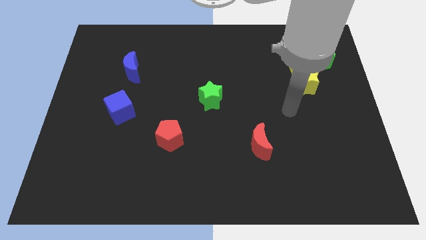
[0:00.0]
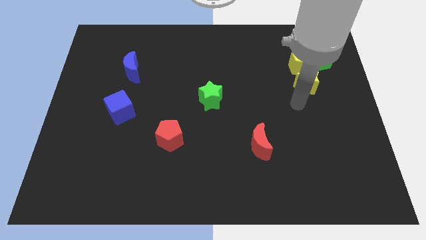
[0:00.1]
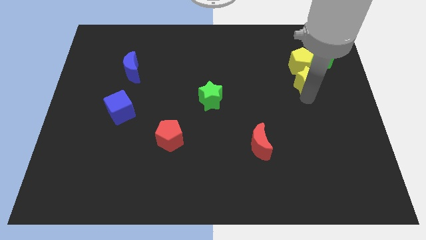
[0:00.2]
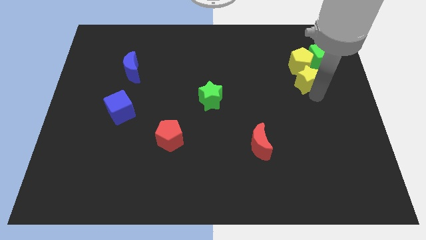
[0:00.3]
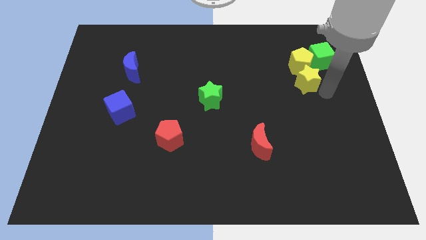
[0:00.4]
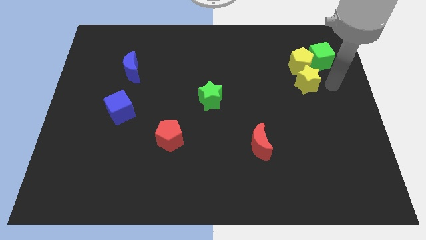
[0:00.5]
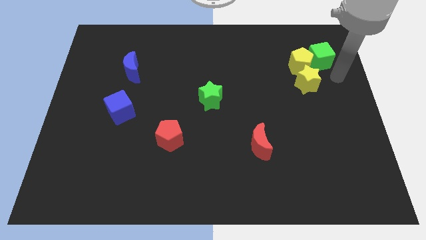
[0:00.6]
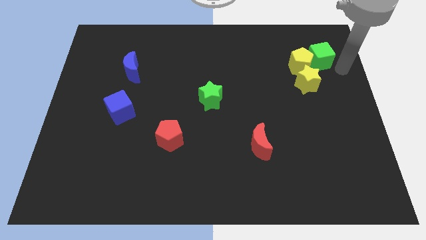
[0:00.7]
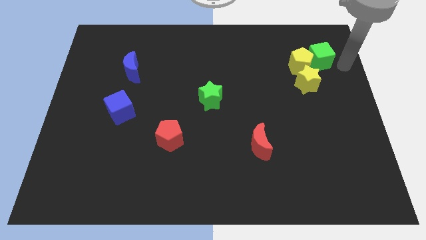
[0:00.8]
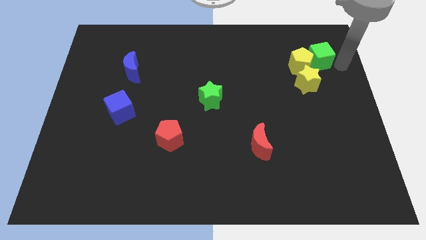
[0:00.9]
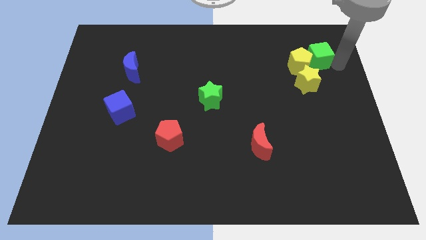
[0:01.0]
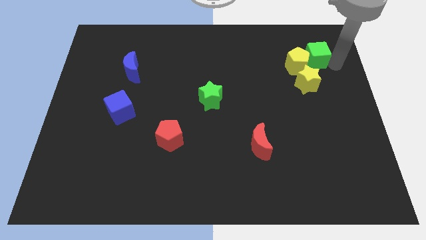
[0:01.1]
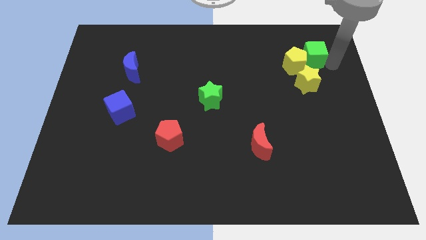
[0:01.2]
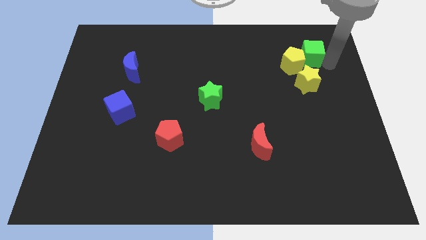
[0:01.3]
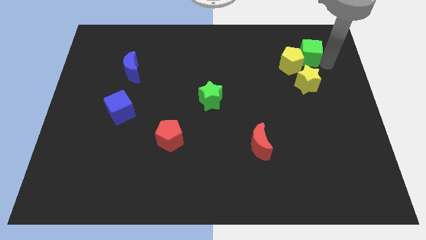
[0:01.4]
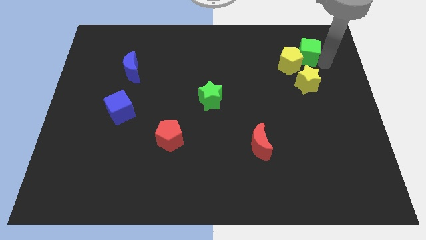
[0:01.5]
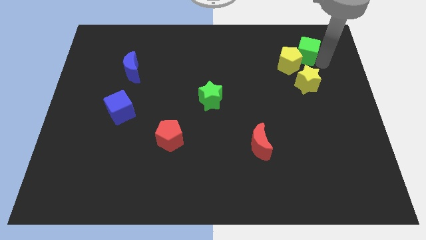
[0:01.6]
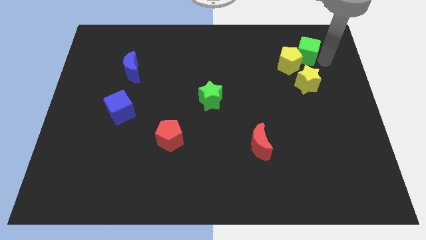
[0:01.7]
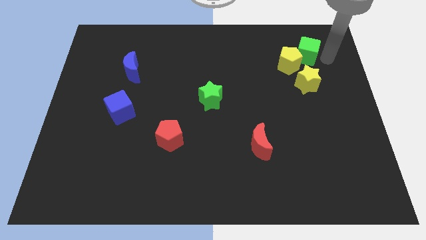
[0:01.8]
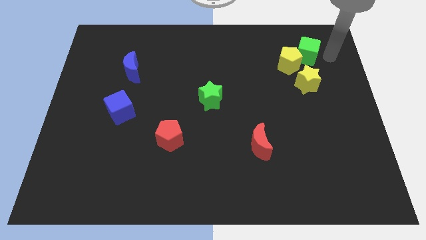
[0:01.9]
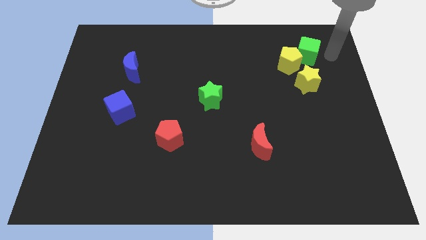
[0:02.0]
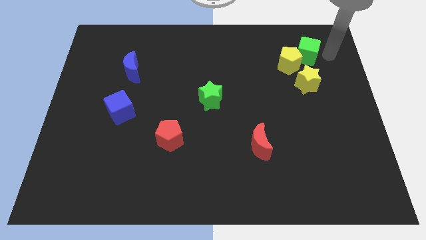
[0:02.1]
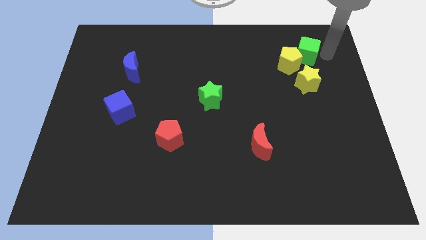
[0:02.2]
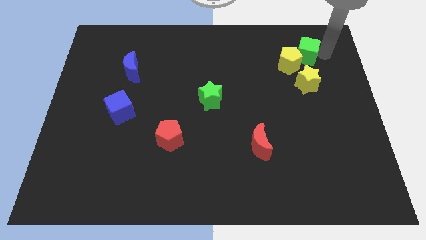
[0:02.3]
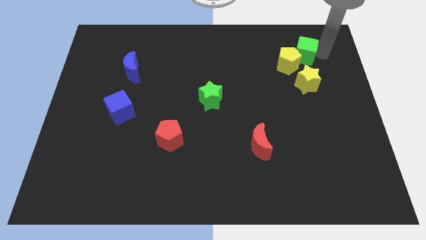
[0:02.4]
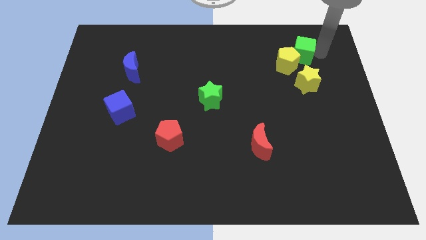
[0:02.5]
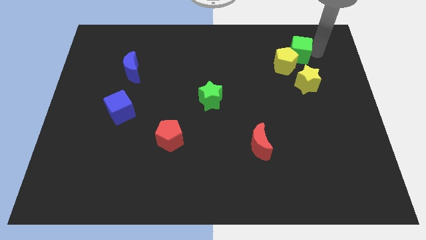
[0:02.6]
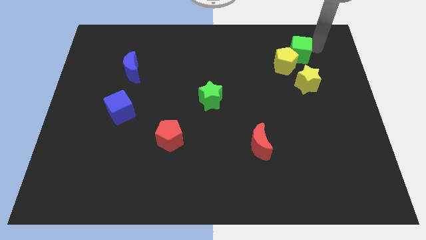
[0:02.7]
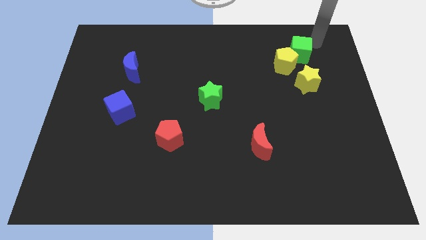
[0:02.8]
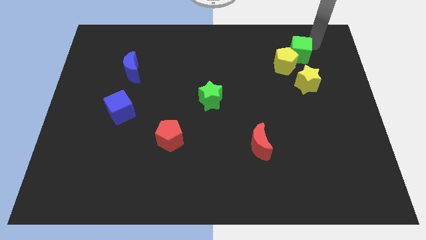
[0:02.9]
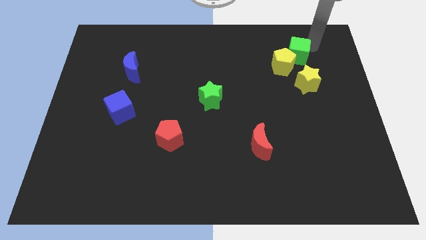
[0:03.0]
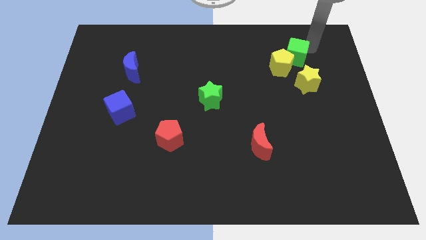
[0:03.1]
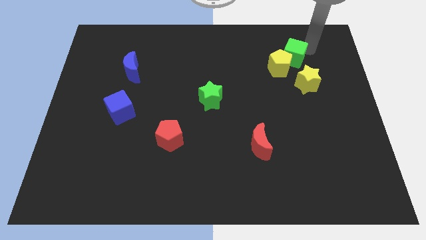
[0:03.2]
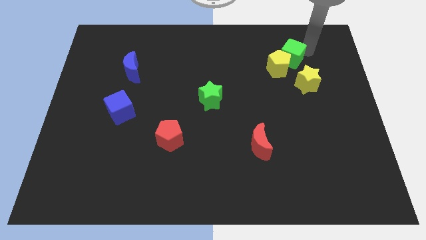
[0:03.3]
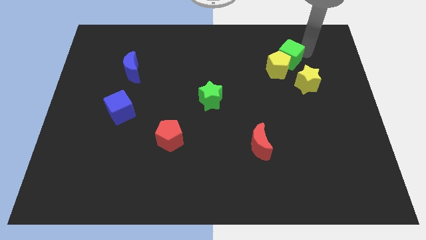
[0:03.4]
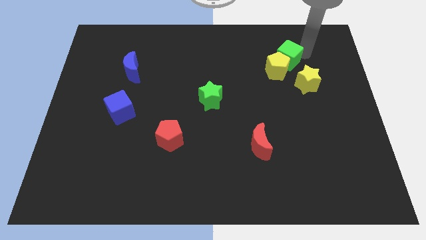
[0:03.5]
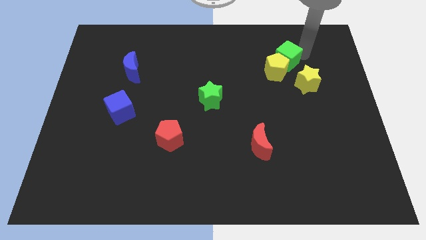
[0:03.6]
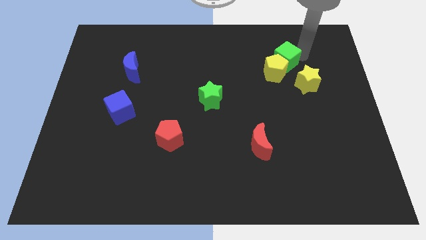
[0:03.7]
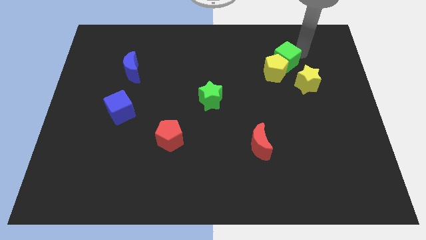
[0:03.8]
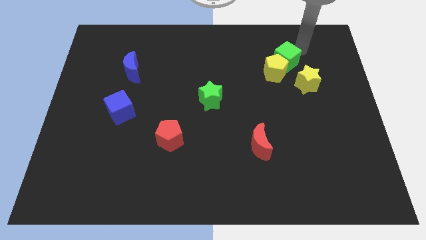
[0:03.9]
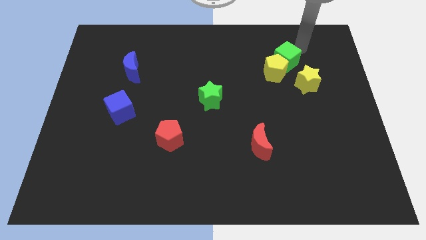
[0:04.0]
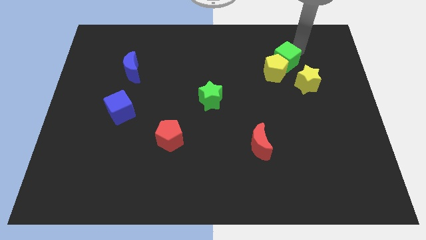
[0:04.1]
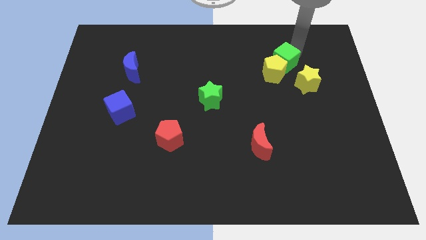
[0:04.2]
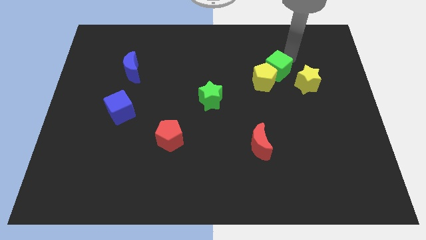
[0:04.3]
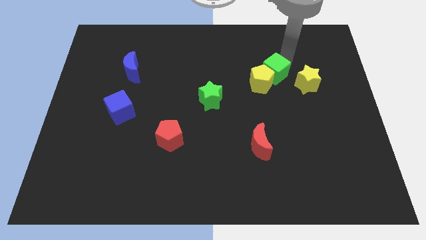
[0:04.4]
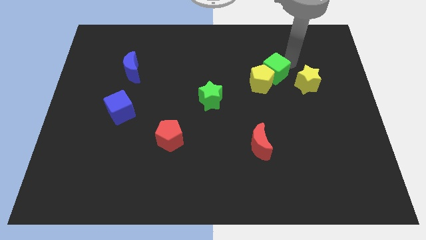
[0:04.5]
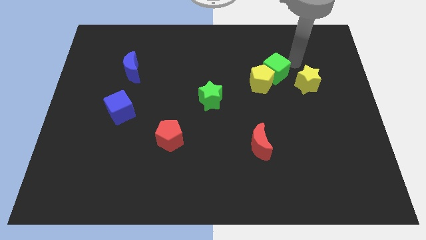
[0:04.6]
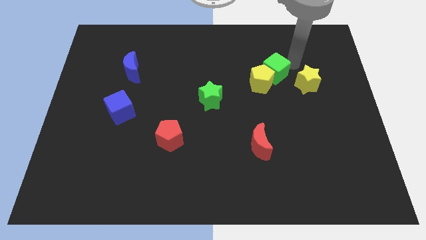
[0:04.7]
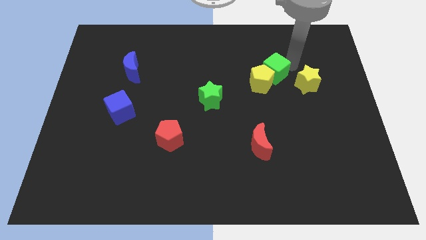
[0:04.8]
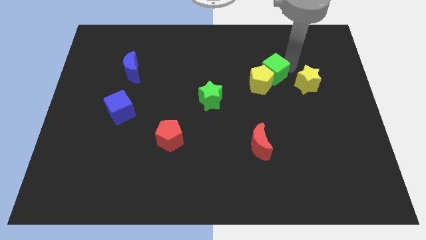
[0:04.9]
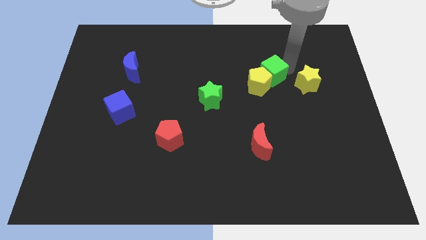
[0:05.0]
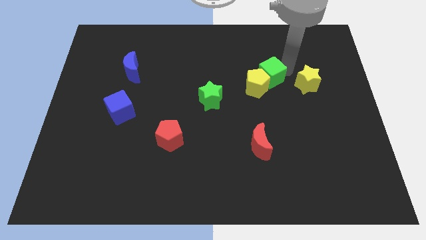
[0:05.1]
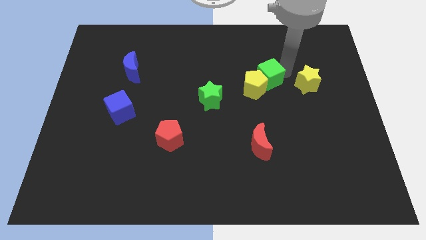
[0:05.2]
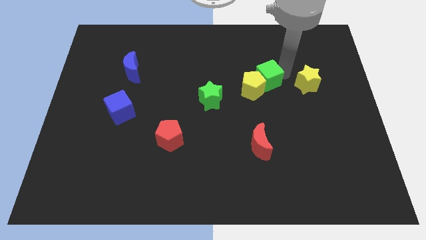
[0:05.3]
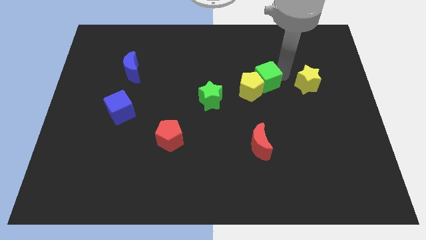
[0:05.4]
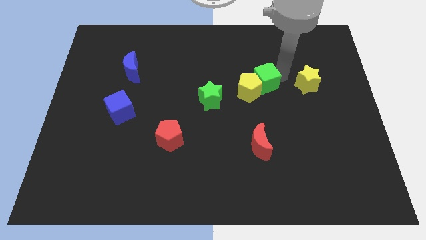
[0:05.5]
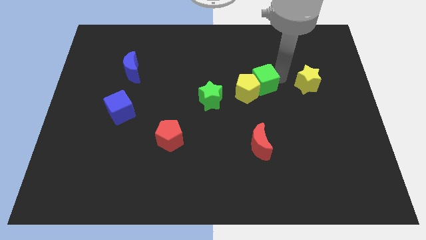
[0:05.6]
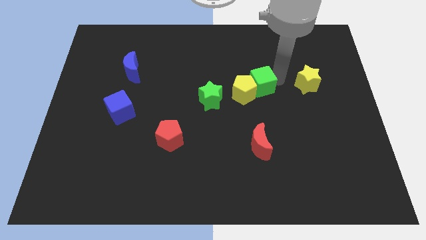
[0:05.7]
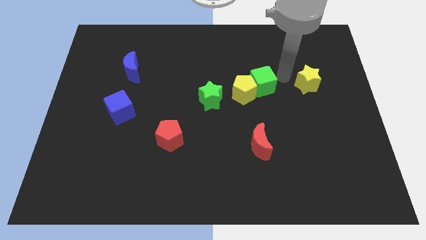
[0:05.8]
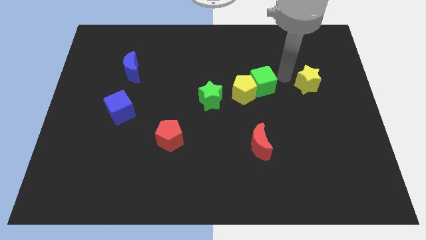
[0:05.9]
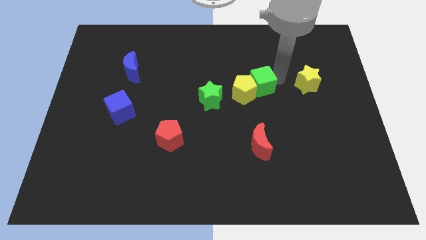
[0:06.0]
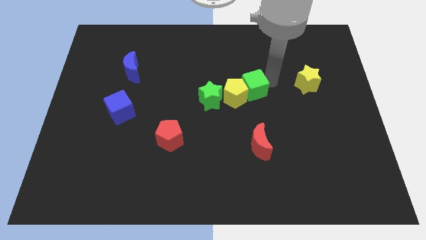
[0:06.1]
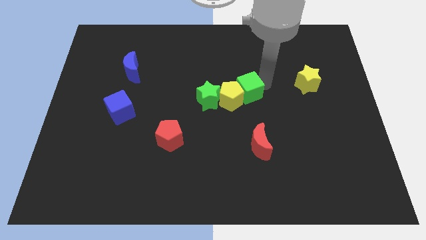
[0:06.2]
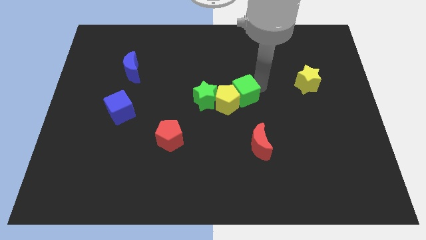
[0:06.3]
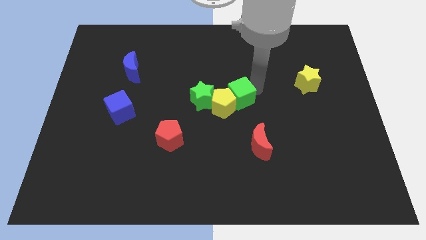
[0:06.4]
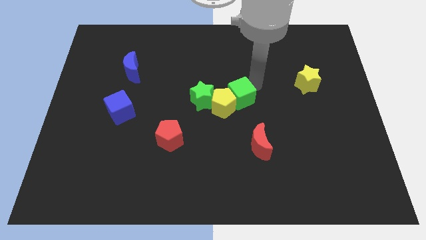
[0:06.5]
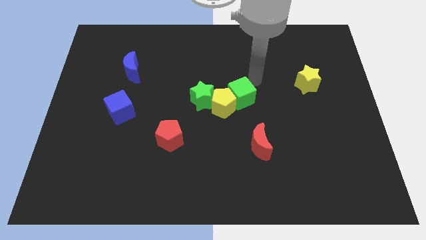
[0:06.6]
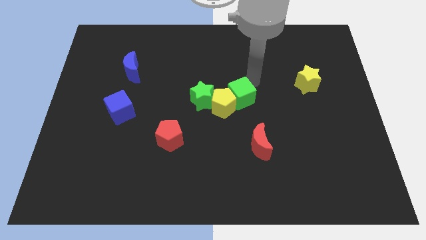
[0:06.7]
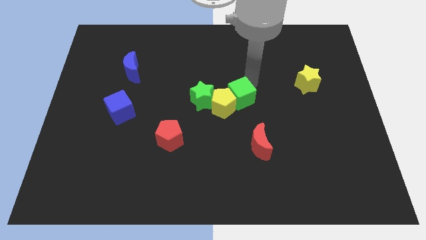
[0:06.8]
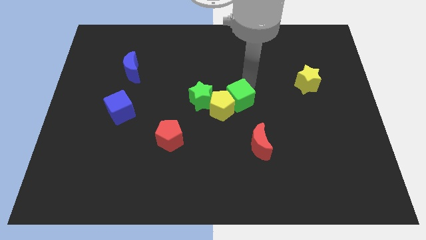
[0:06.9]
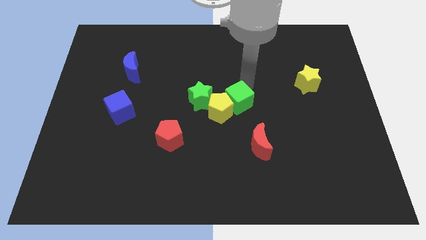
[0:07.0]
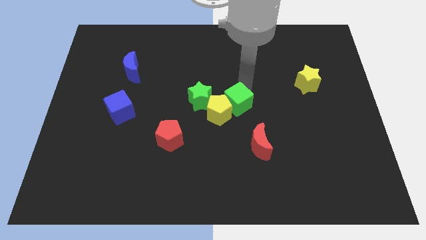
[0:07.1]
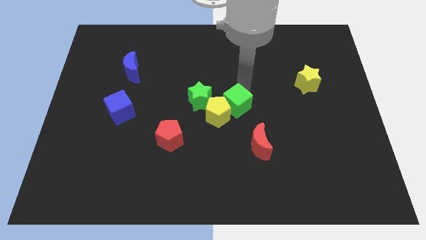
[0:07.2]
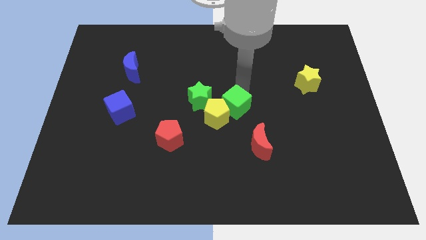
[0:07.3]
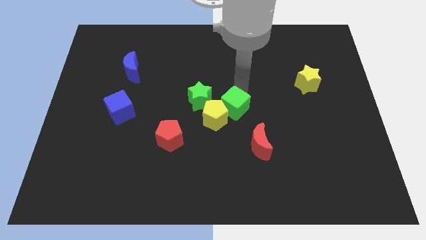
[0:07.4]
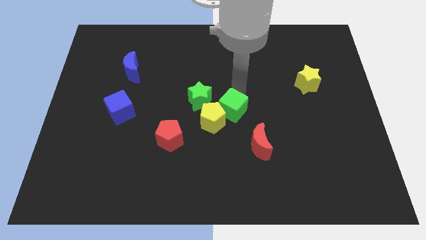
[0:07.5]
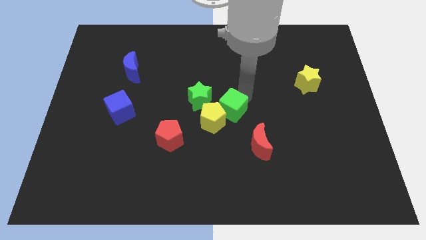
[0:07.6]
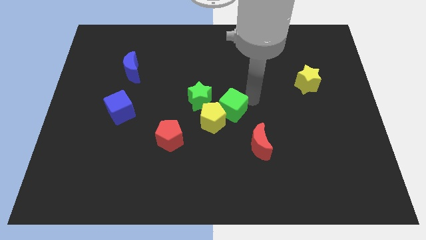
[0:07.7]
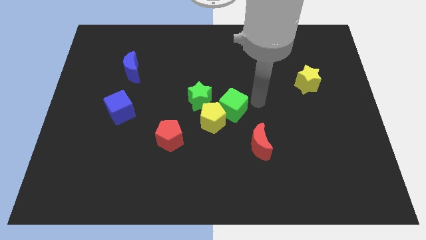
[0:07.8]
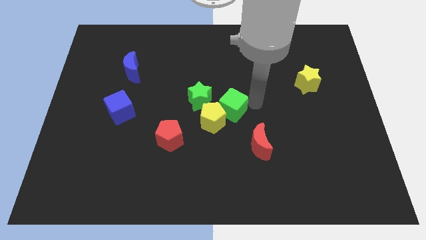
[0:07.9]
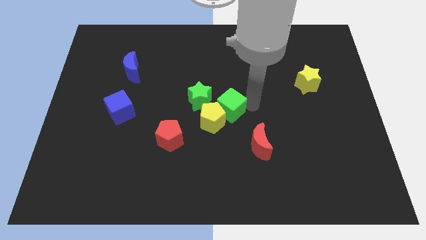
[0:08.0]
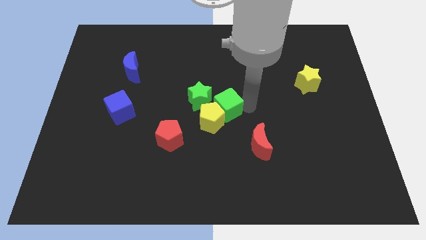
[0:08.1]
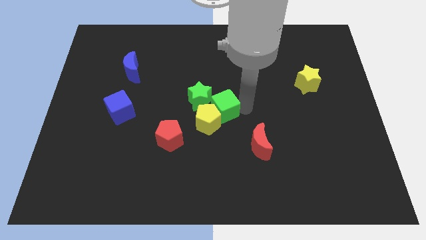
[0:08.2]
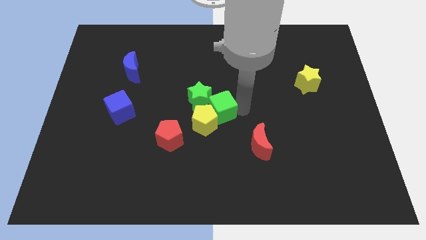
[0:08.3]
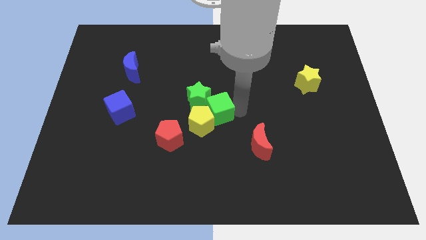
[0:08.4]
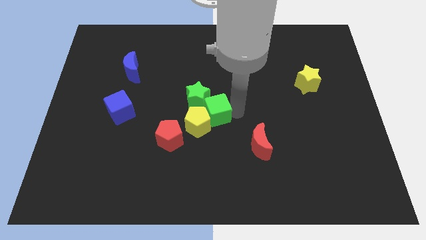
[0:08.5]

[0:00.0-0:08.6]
slide the green cube diagonally up and to the right of the red pentagon
